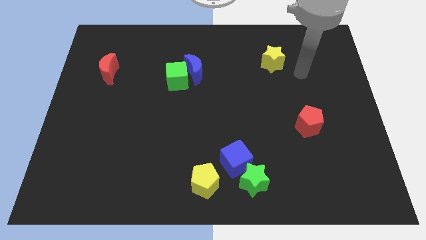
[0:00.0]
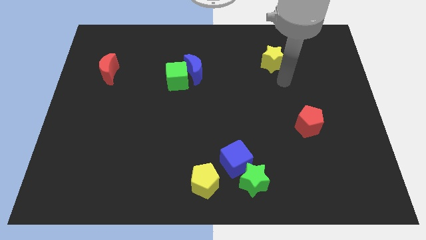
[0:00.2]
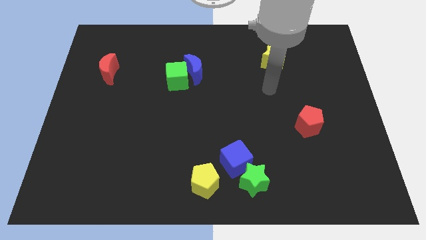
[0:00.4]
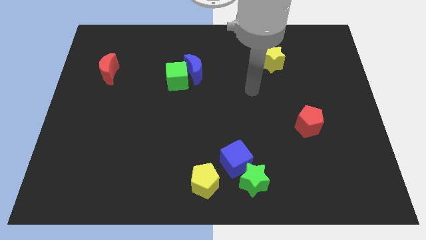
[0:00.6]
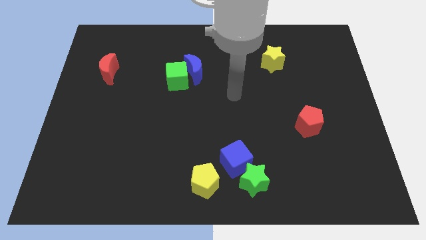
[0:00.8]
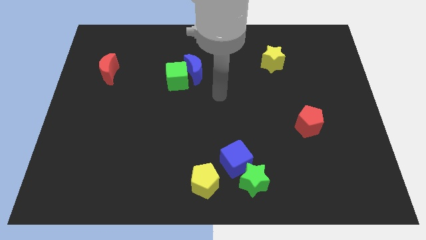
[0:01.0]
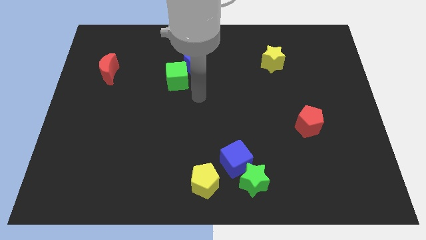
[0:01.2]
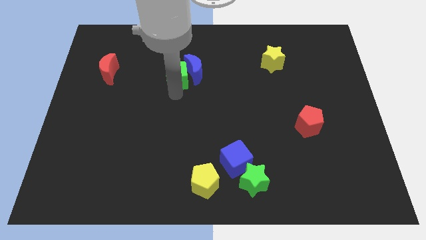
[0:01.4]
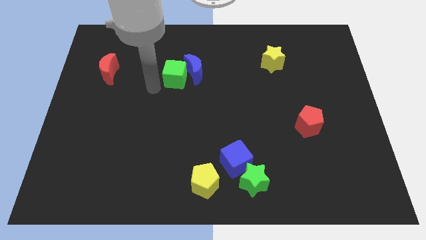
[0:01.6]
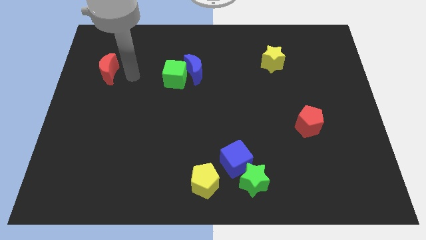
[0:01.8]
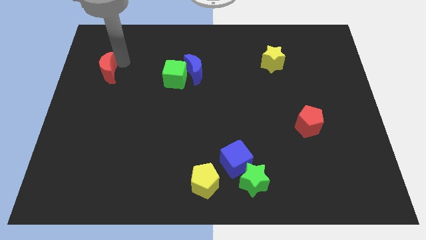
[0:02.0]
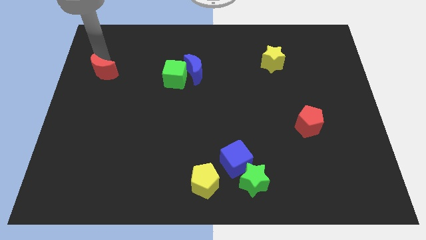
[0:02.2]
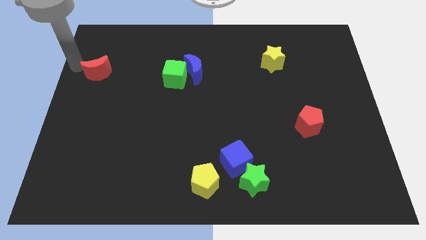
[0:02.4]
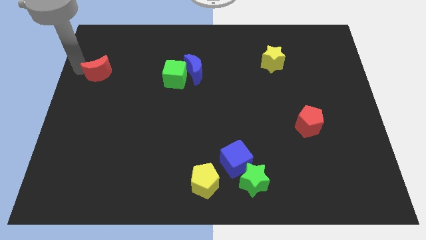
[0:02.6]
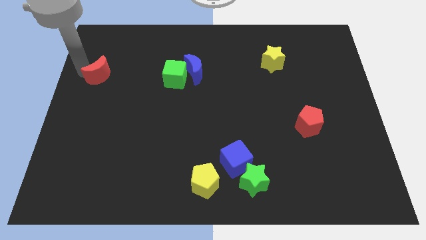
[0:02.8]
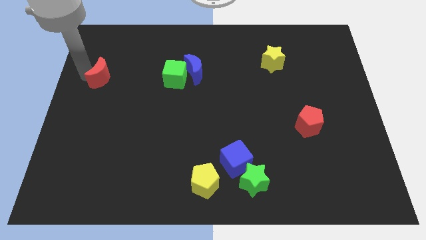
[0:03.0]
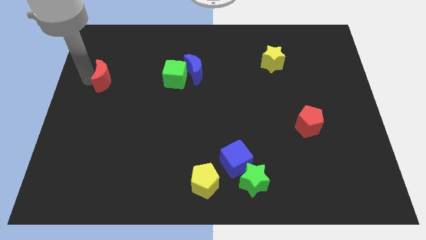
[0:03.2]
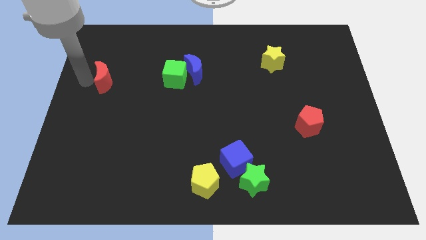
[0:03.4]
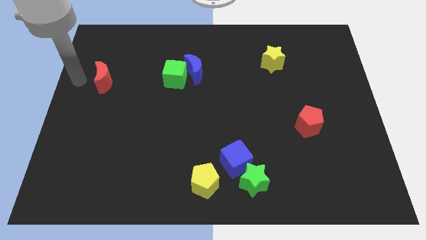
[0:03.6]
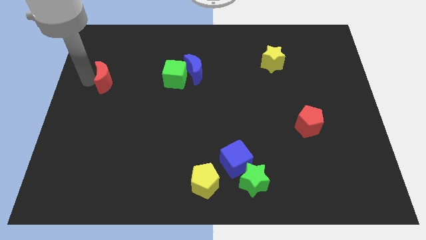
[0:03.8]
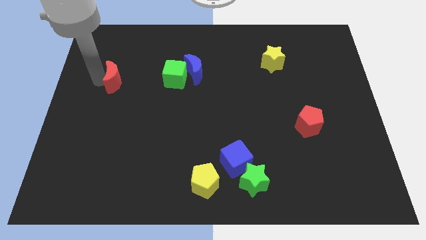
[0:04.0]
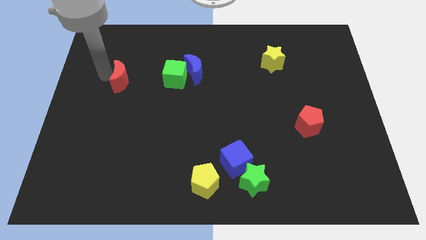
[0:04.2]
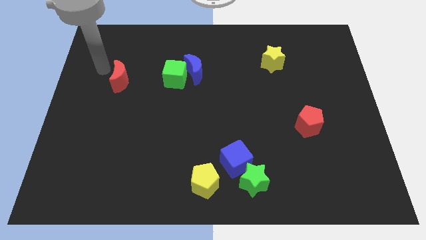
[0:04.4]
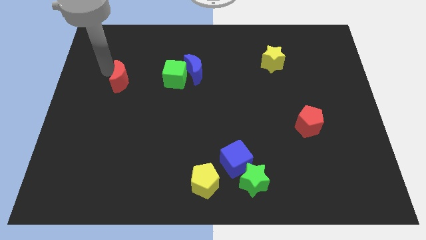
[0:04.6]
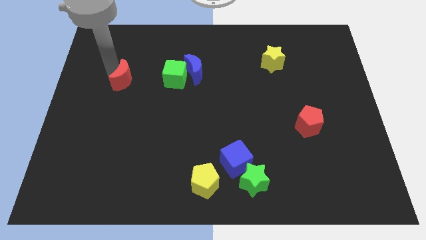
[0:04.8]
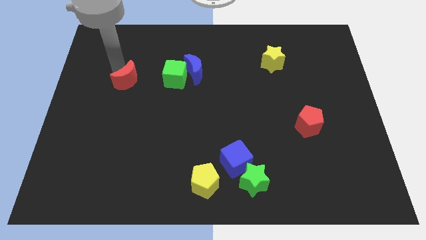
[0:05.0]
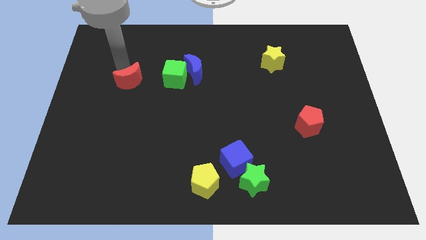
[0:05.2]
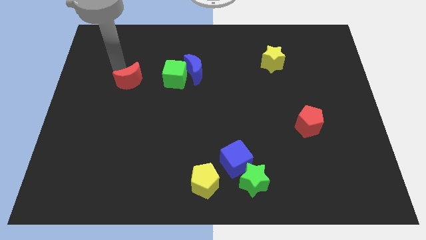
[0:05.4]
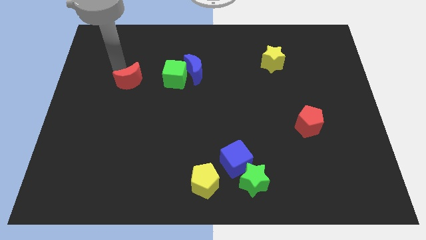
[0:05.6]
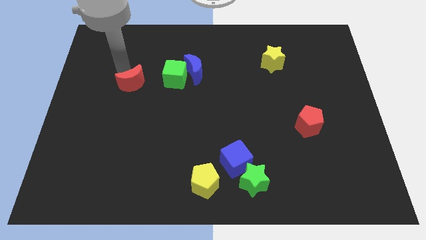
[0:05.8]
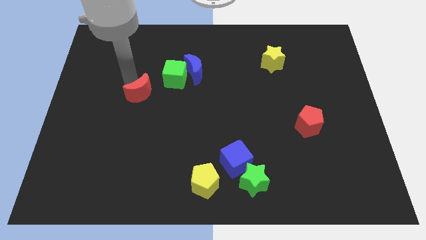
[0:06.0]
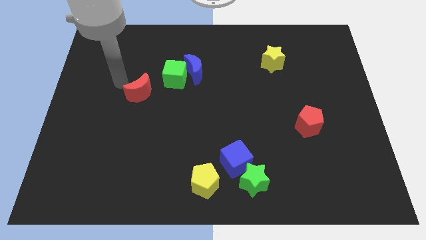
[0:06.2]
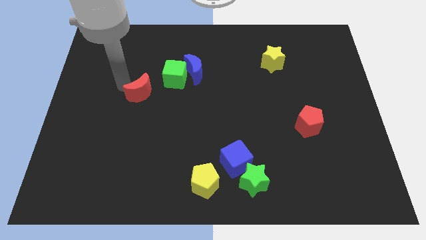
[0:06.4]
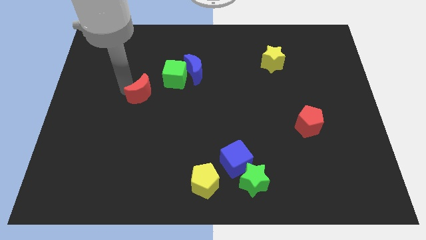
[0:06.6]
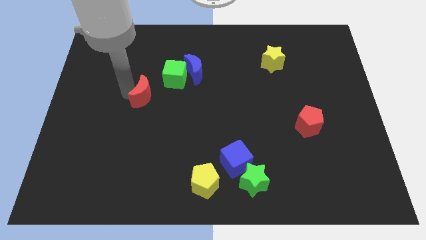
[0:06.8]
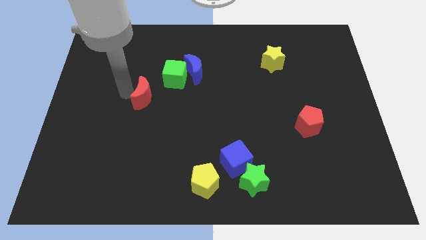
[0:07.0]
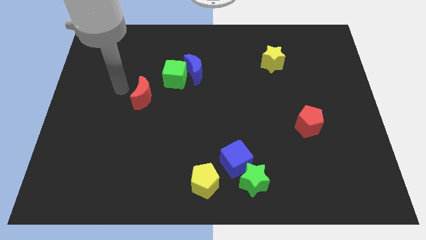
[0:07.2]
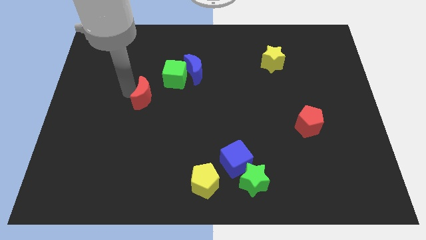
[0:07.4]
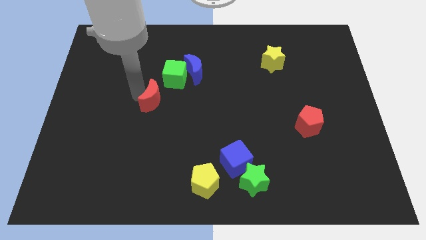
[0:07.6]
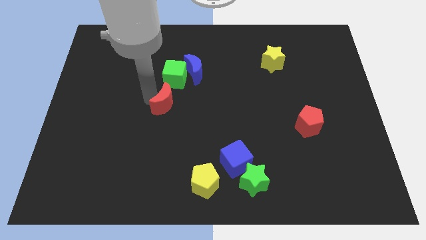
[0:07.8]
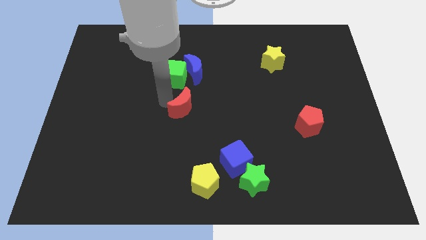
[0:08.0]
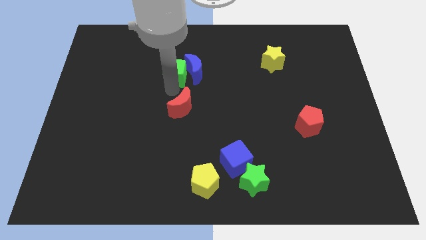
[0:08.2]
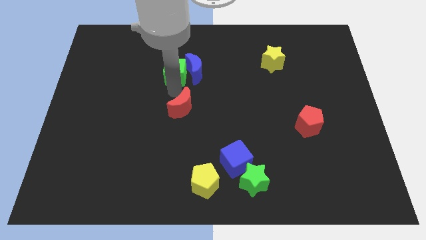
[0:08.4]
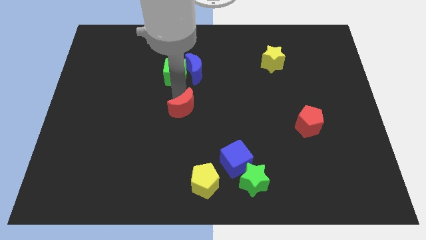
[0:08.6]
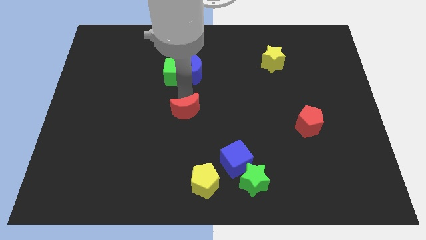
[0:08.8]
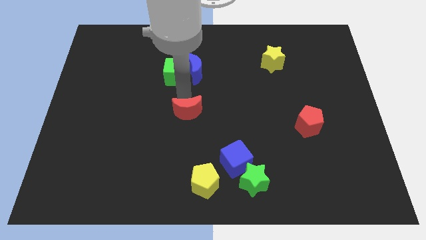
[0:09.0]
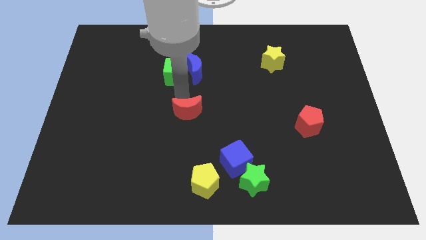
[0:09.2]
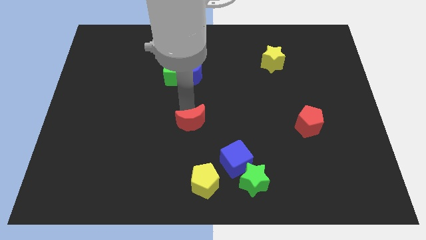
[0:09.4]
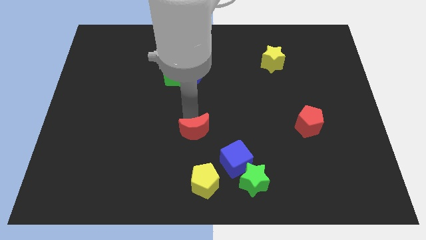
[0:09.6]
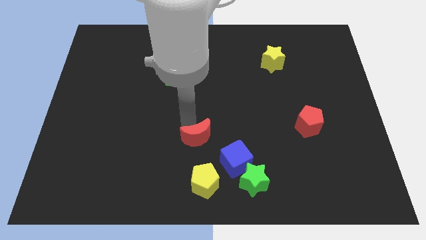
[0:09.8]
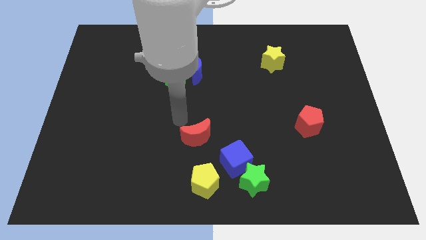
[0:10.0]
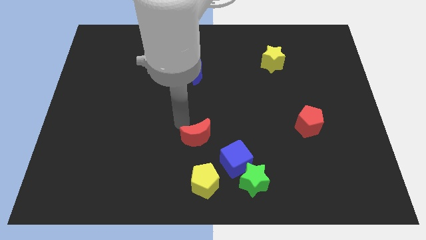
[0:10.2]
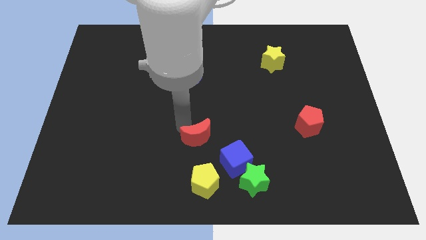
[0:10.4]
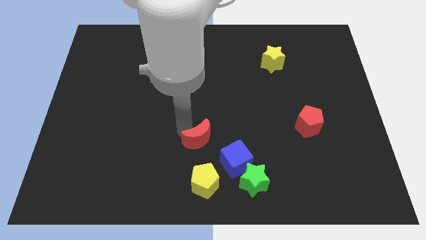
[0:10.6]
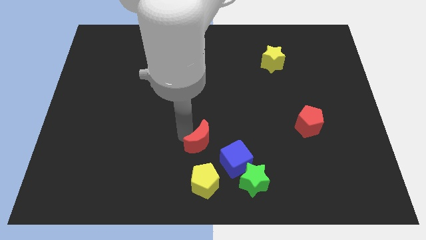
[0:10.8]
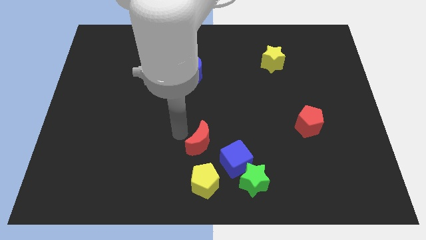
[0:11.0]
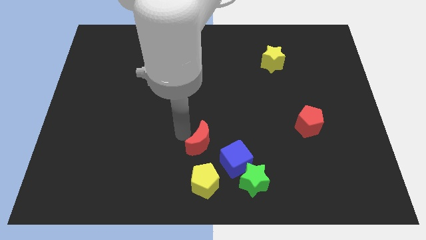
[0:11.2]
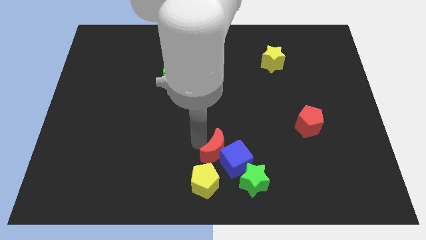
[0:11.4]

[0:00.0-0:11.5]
slide the red moon towards the blue cube

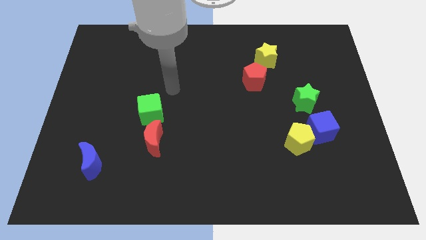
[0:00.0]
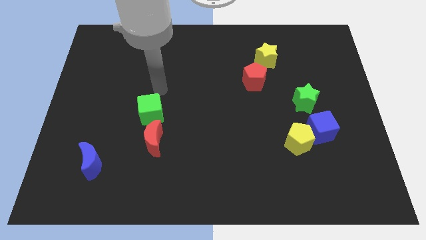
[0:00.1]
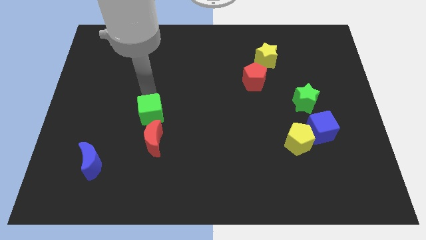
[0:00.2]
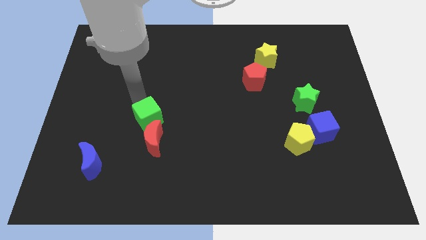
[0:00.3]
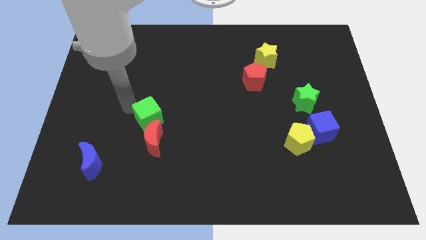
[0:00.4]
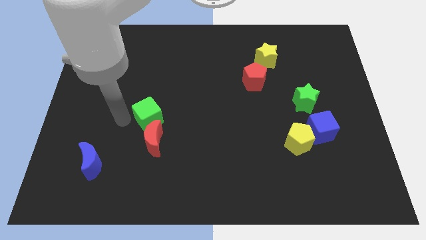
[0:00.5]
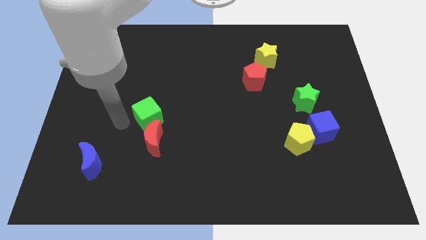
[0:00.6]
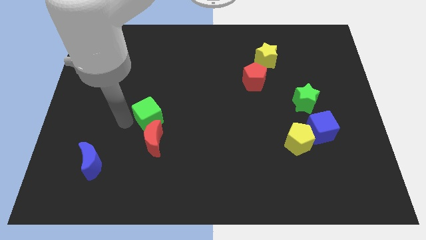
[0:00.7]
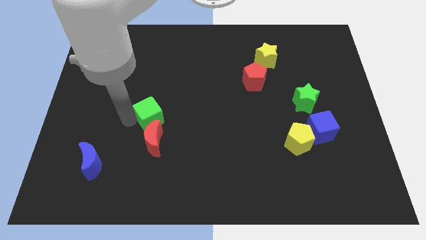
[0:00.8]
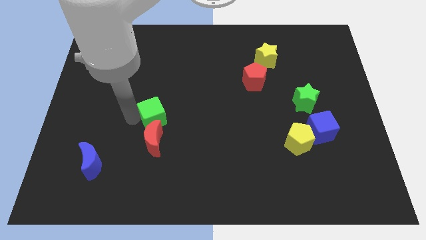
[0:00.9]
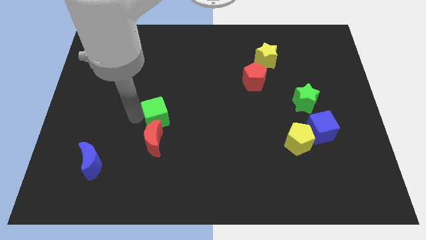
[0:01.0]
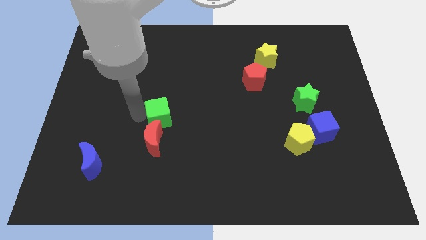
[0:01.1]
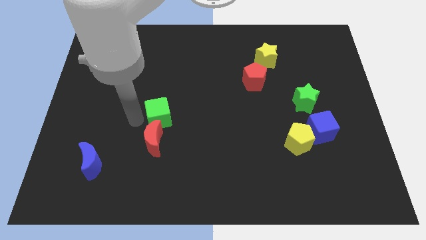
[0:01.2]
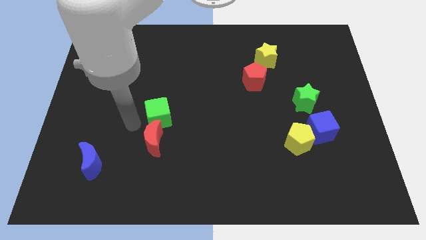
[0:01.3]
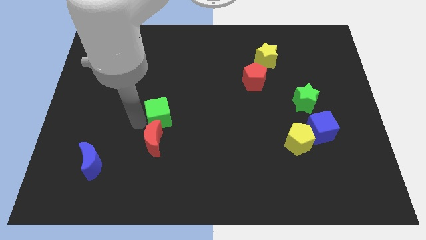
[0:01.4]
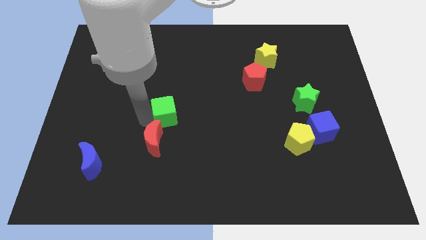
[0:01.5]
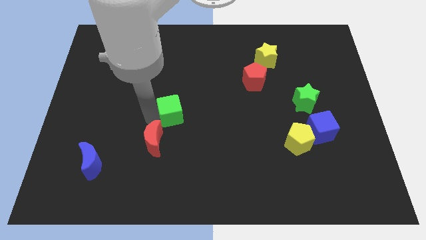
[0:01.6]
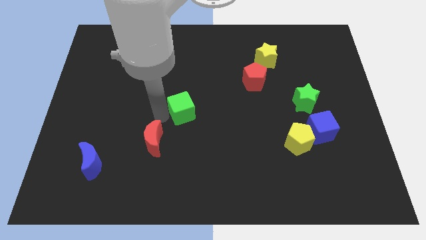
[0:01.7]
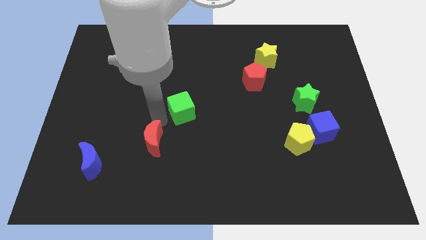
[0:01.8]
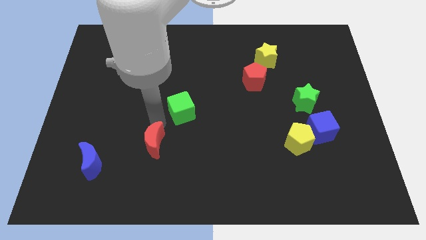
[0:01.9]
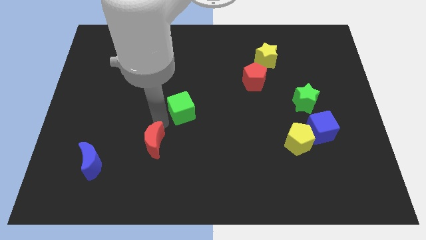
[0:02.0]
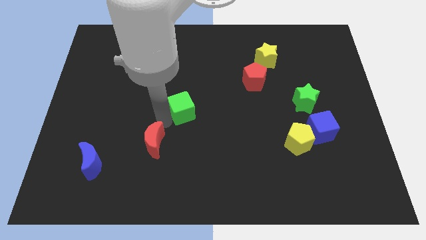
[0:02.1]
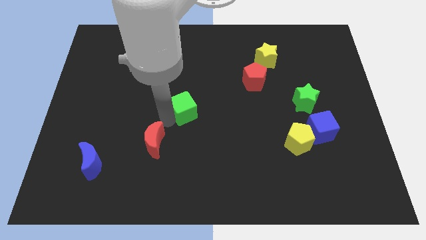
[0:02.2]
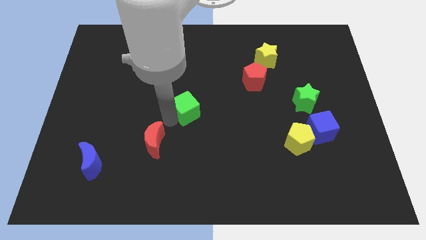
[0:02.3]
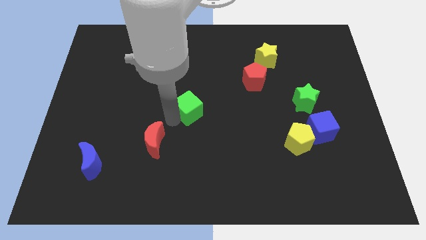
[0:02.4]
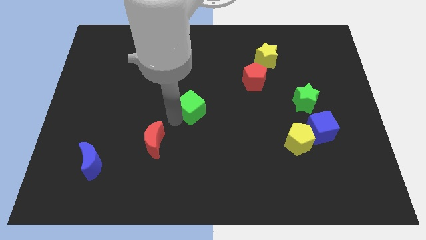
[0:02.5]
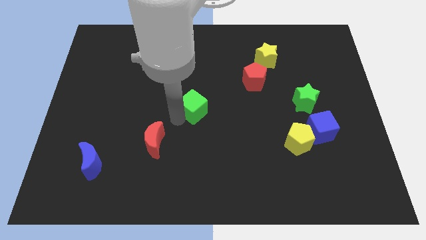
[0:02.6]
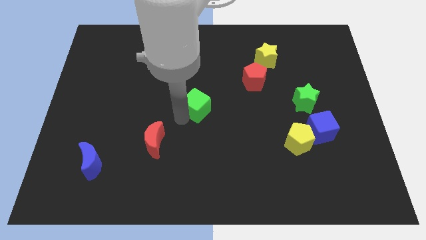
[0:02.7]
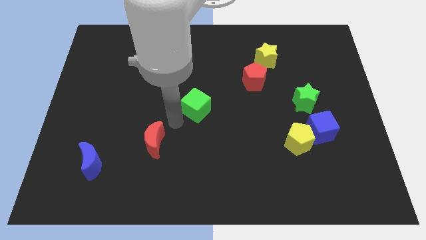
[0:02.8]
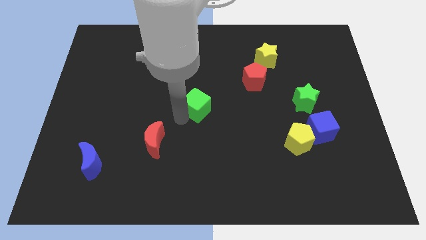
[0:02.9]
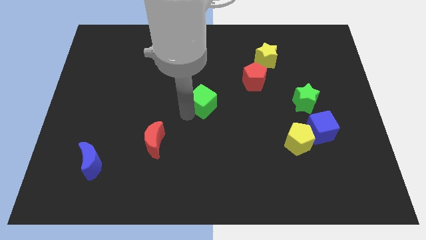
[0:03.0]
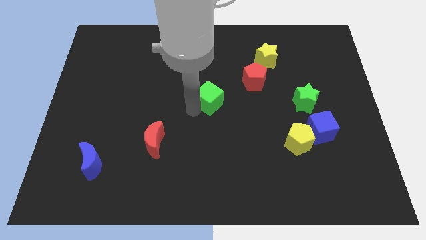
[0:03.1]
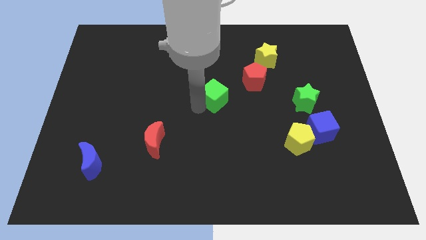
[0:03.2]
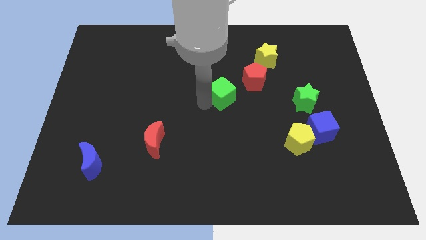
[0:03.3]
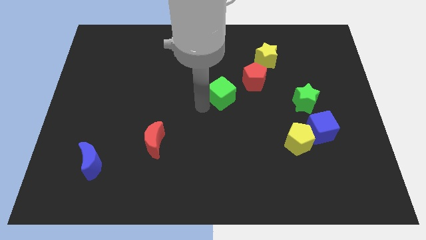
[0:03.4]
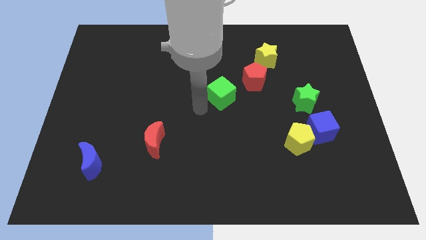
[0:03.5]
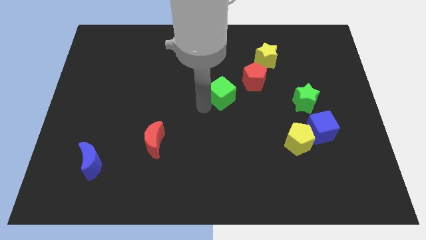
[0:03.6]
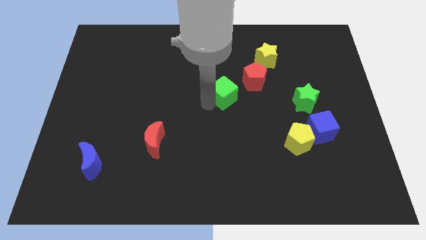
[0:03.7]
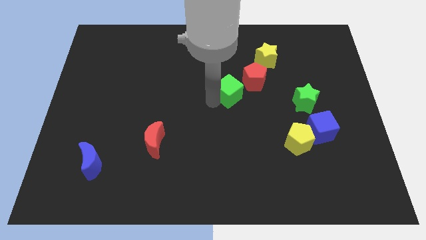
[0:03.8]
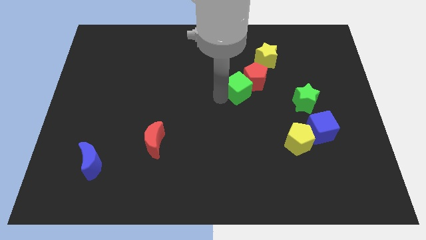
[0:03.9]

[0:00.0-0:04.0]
move the green cube to the red pentagon
